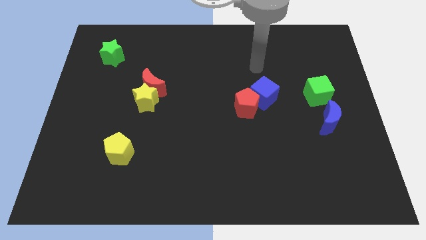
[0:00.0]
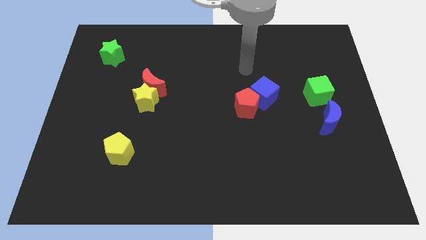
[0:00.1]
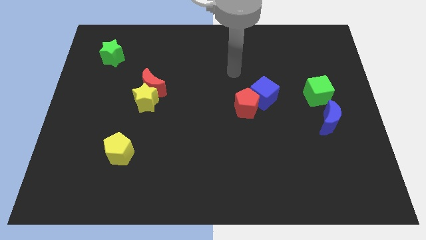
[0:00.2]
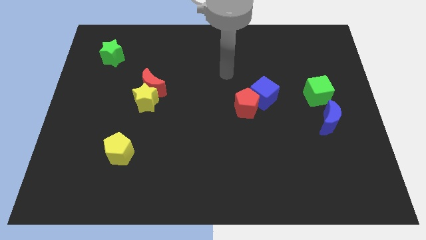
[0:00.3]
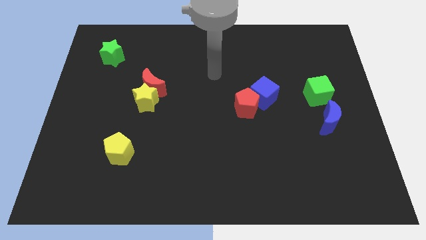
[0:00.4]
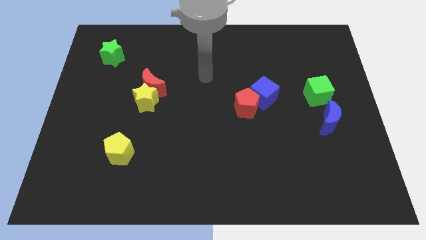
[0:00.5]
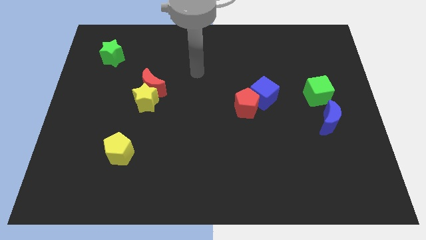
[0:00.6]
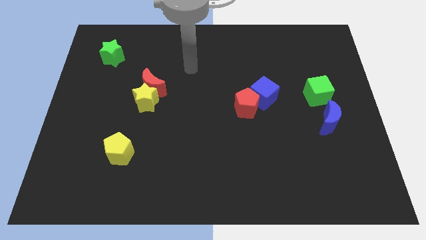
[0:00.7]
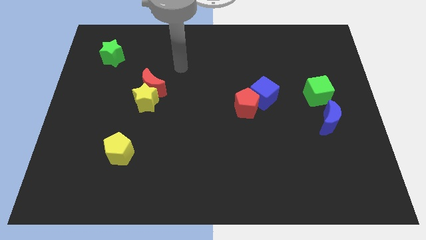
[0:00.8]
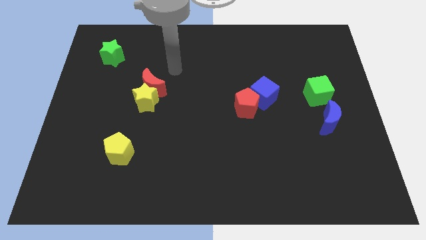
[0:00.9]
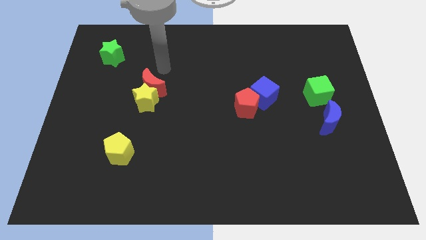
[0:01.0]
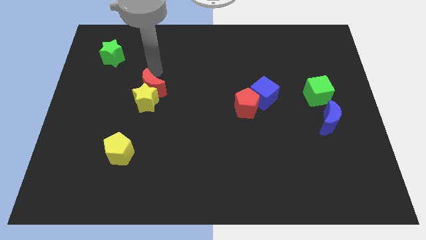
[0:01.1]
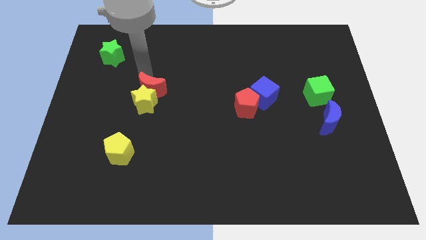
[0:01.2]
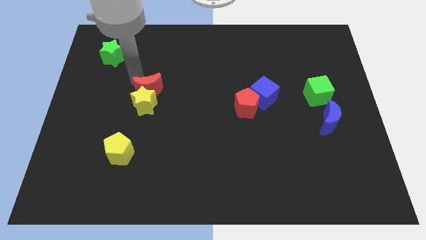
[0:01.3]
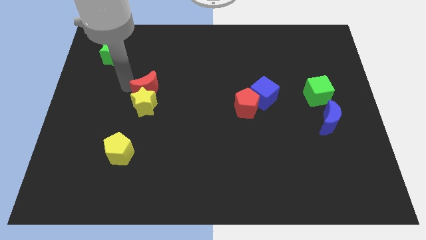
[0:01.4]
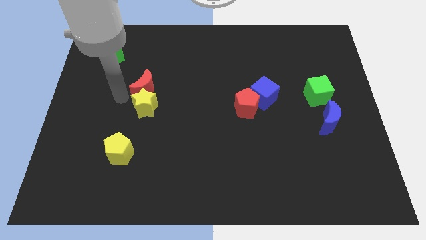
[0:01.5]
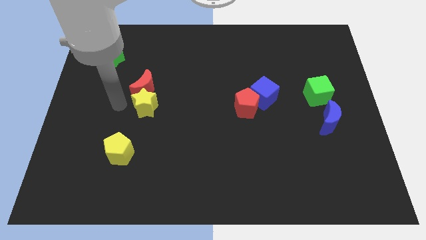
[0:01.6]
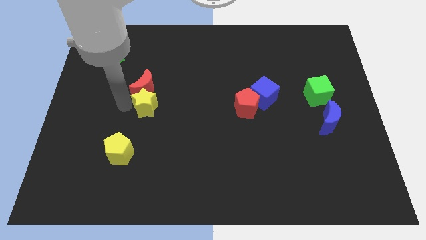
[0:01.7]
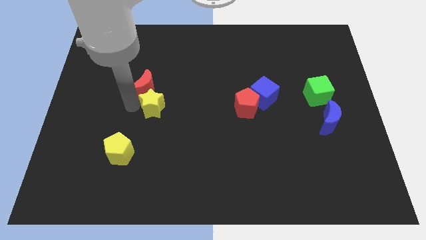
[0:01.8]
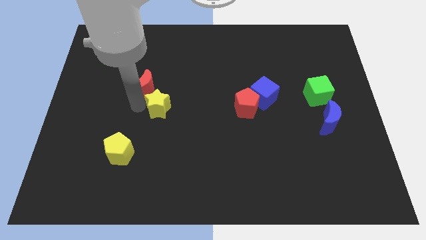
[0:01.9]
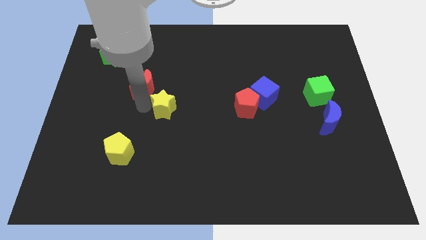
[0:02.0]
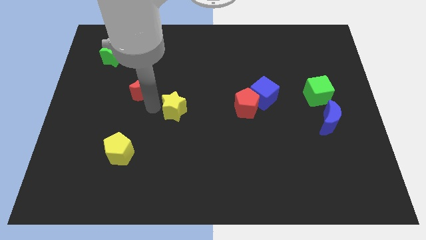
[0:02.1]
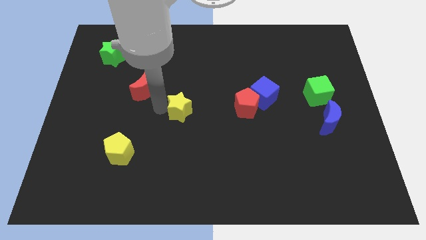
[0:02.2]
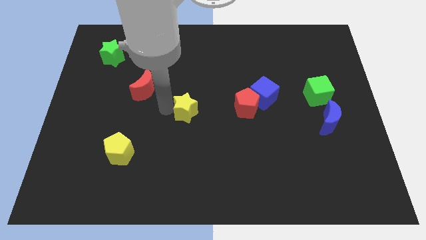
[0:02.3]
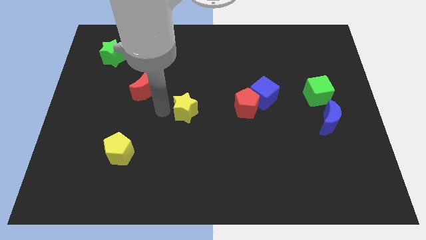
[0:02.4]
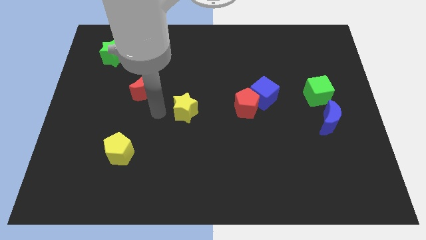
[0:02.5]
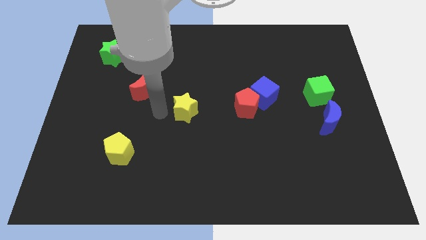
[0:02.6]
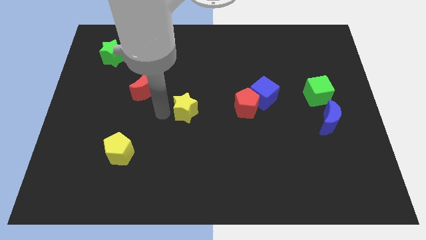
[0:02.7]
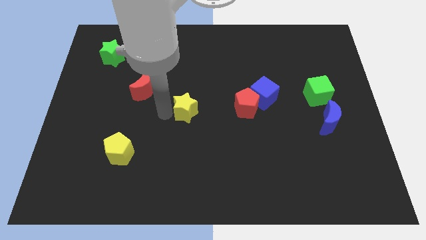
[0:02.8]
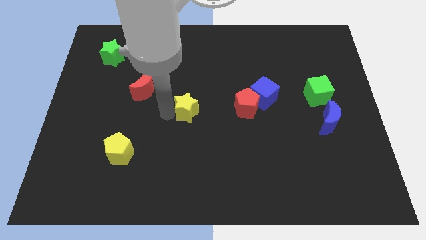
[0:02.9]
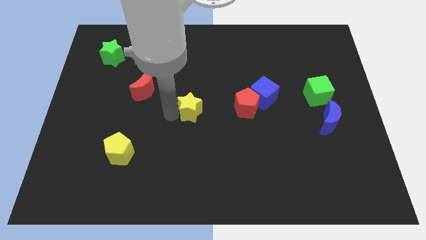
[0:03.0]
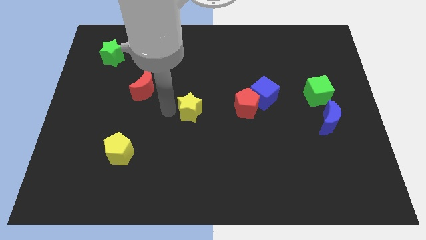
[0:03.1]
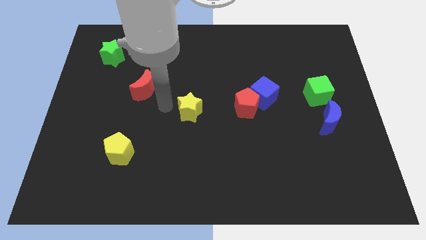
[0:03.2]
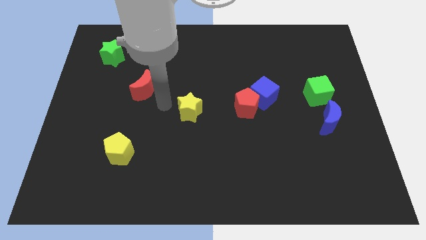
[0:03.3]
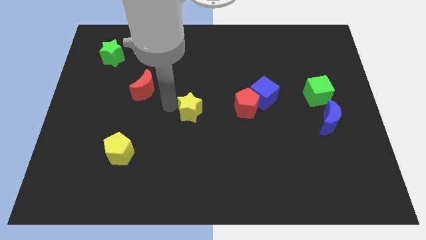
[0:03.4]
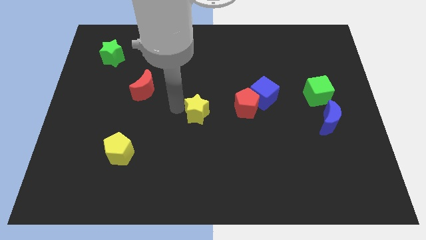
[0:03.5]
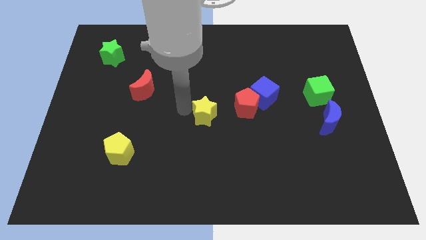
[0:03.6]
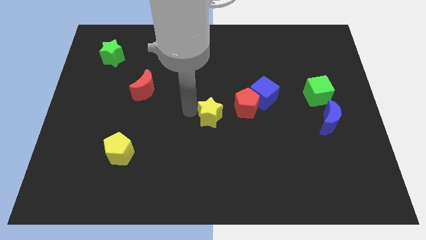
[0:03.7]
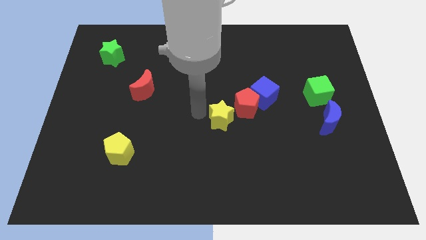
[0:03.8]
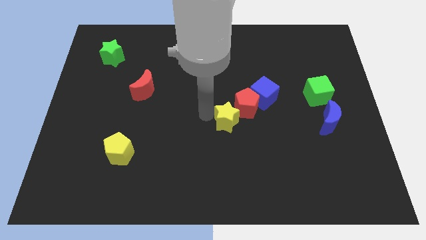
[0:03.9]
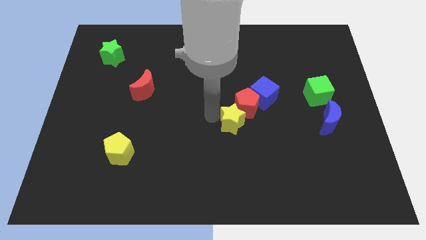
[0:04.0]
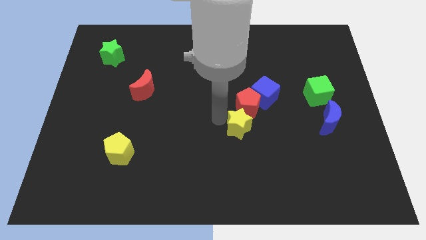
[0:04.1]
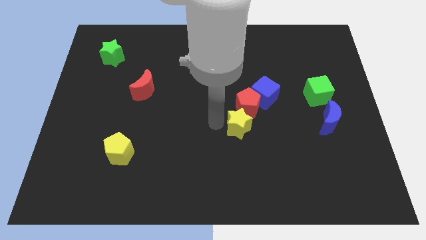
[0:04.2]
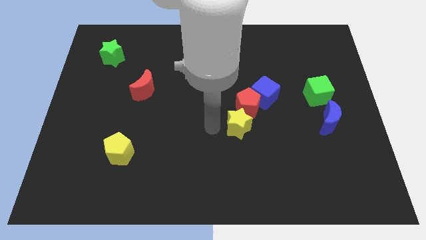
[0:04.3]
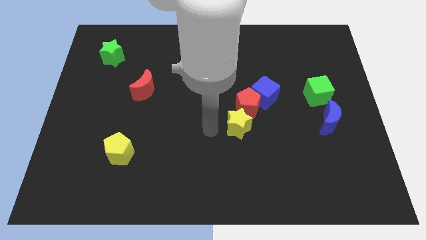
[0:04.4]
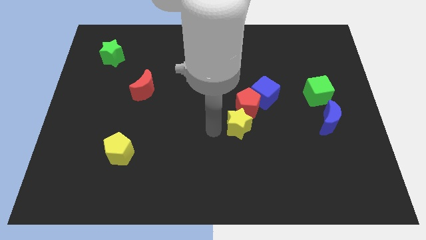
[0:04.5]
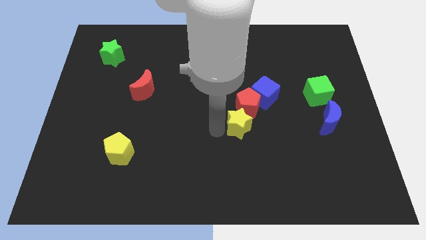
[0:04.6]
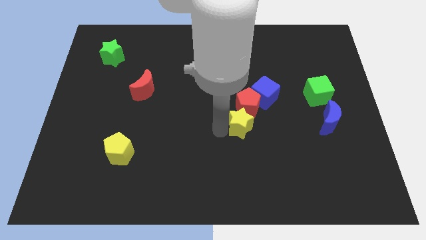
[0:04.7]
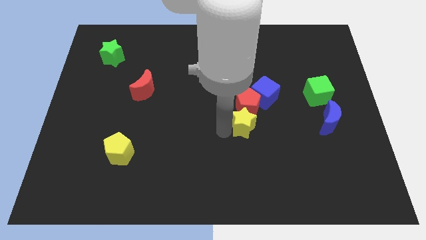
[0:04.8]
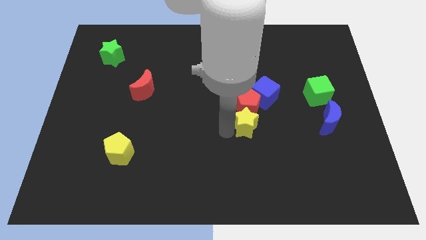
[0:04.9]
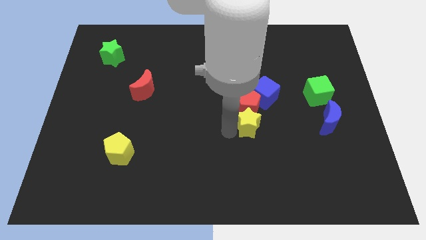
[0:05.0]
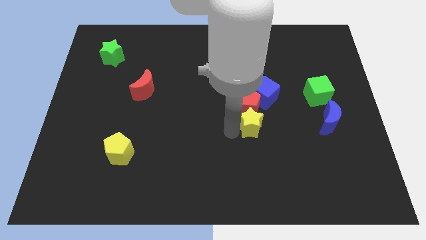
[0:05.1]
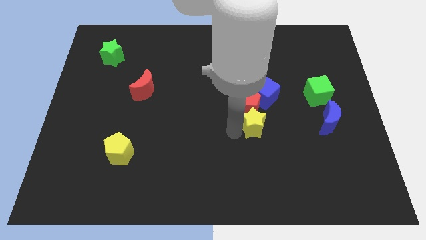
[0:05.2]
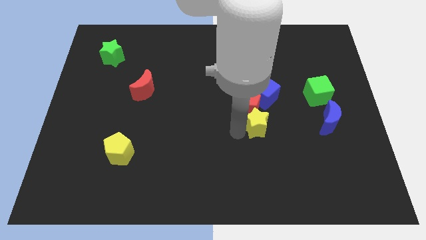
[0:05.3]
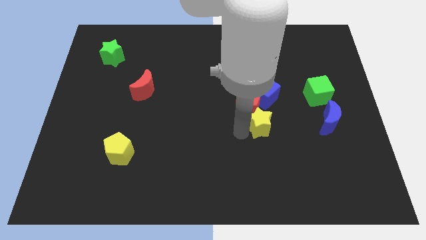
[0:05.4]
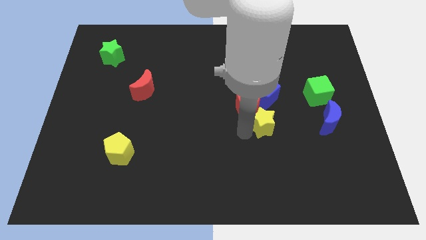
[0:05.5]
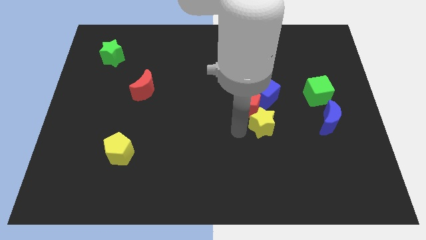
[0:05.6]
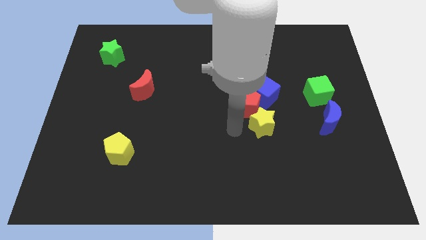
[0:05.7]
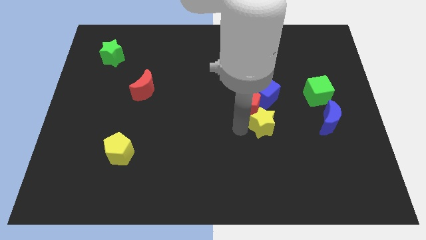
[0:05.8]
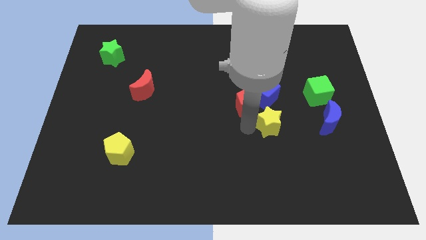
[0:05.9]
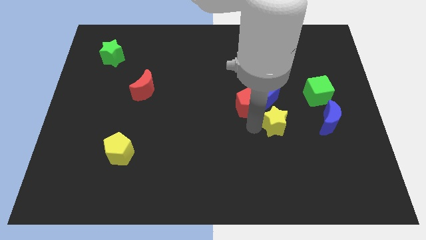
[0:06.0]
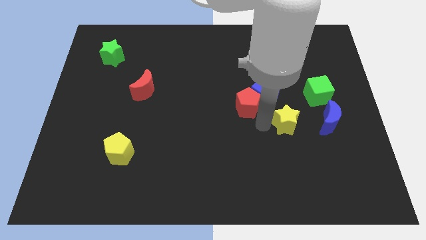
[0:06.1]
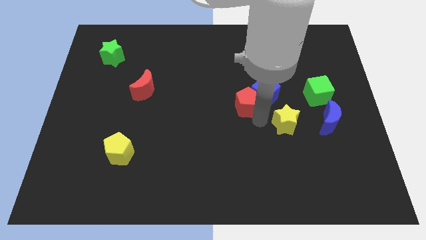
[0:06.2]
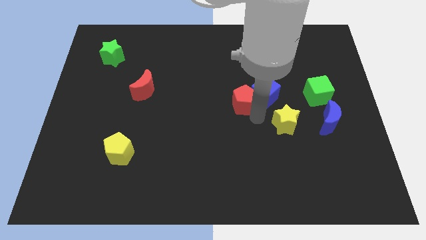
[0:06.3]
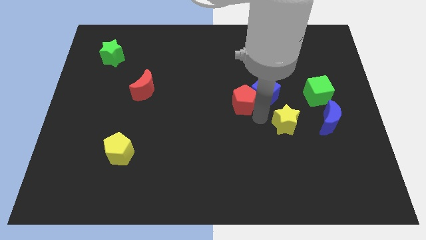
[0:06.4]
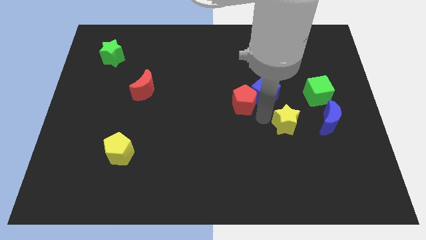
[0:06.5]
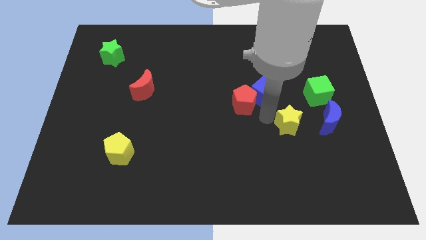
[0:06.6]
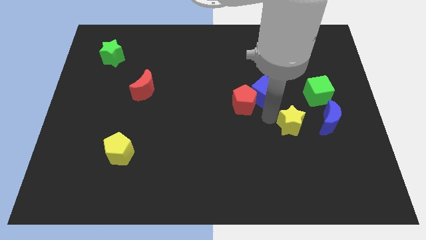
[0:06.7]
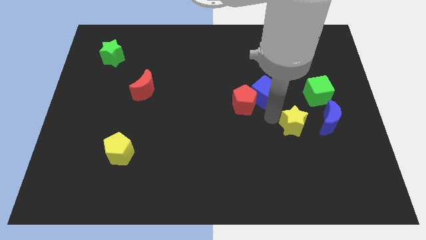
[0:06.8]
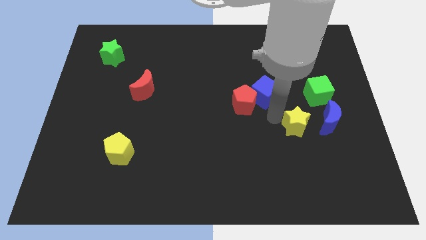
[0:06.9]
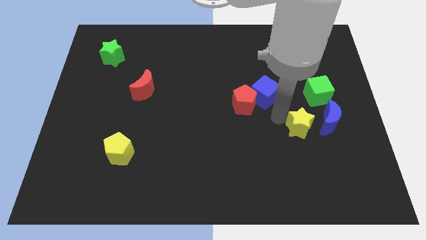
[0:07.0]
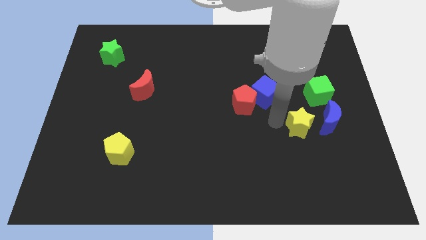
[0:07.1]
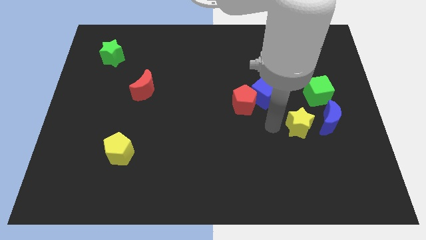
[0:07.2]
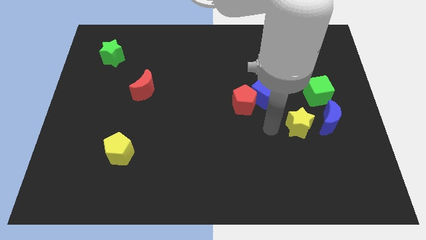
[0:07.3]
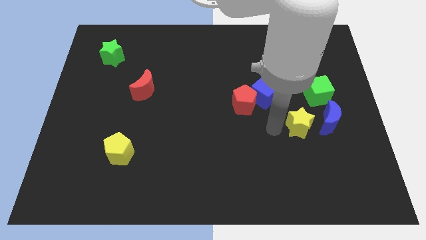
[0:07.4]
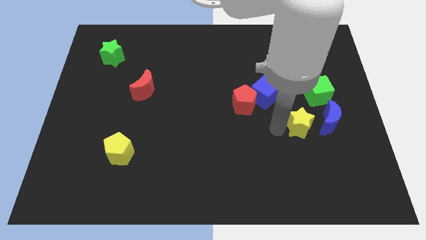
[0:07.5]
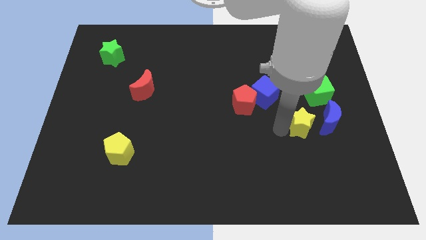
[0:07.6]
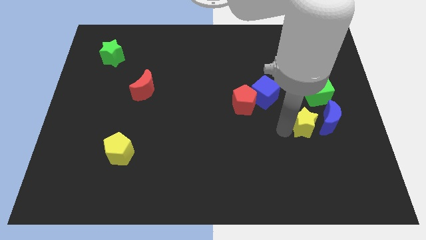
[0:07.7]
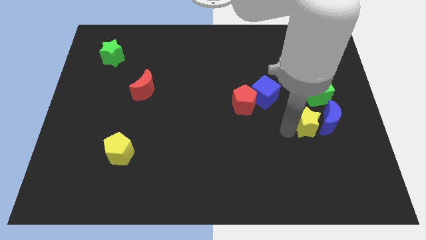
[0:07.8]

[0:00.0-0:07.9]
slide the yellow star towards the blue moon
